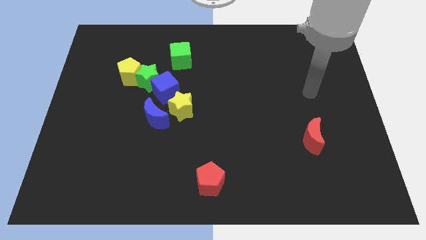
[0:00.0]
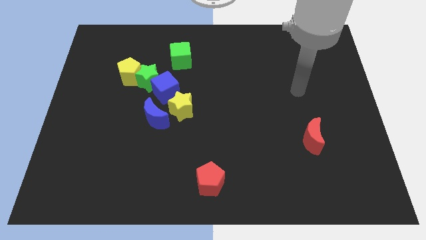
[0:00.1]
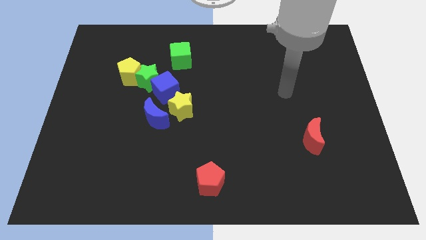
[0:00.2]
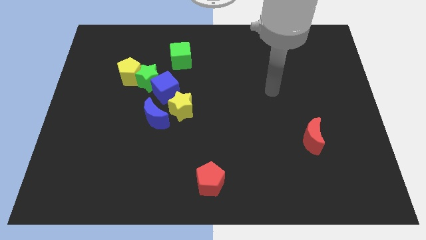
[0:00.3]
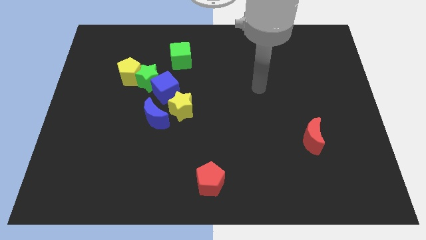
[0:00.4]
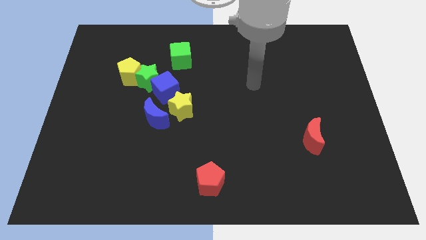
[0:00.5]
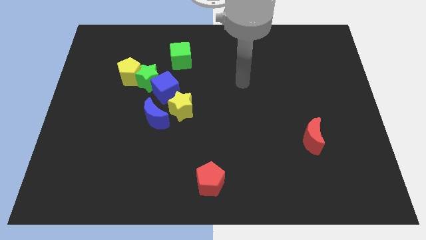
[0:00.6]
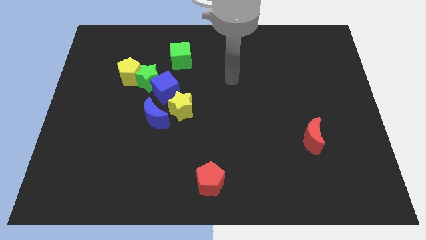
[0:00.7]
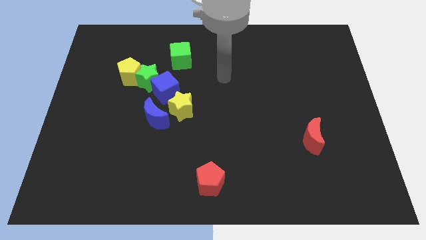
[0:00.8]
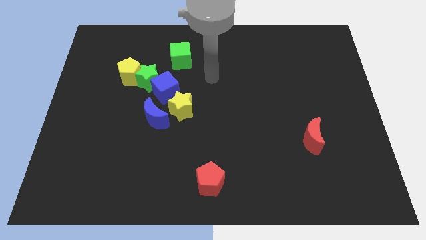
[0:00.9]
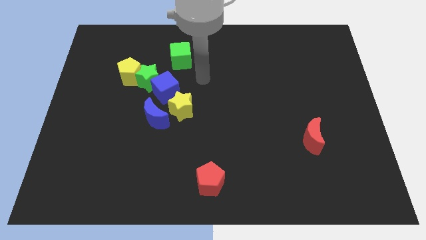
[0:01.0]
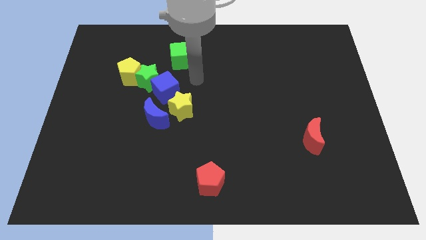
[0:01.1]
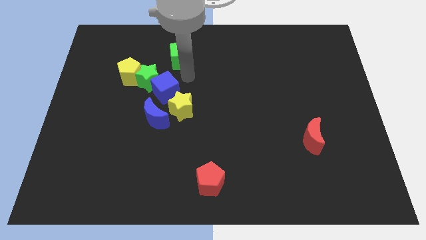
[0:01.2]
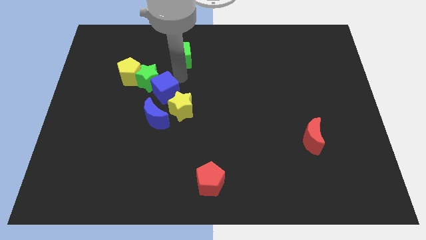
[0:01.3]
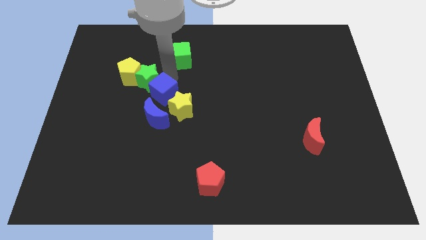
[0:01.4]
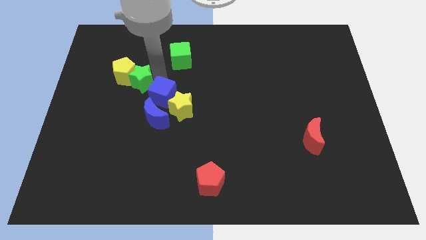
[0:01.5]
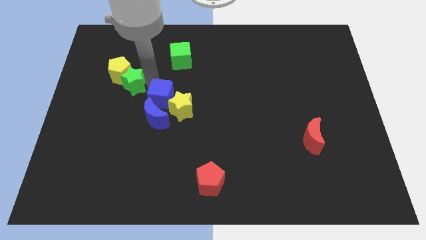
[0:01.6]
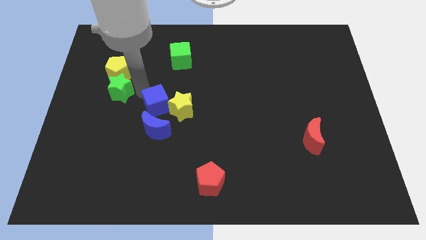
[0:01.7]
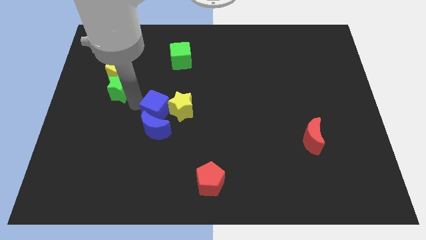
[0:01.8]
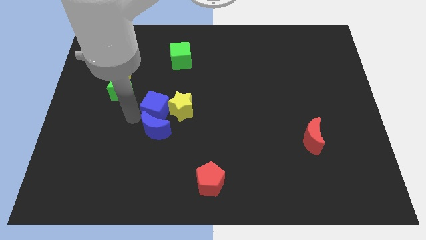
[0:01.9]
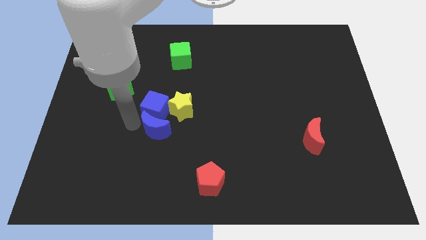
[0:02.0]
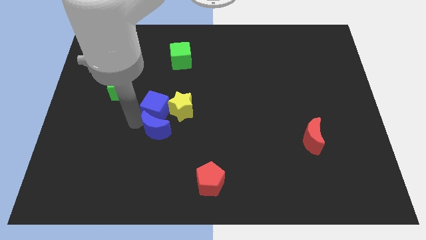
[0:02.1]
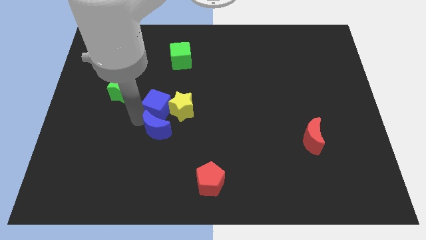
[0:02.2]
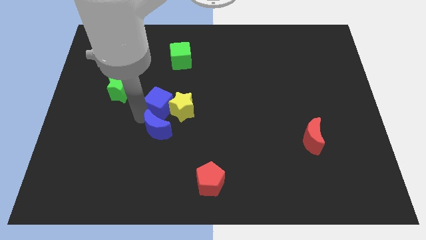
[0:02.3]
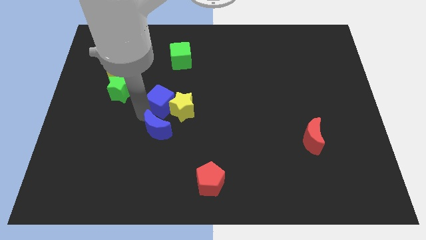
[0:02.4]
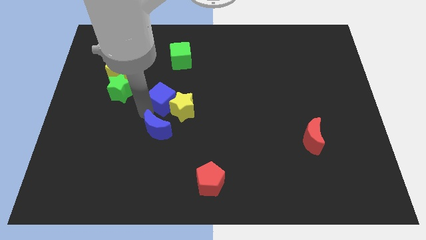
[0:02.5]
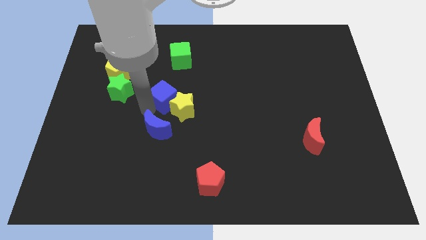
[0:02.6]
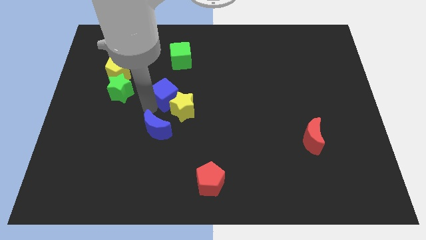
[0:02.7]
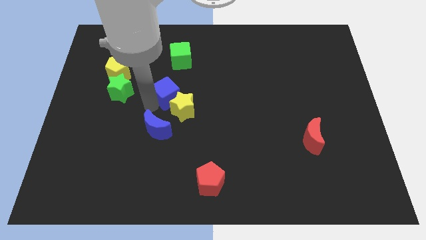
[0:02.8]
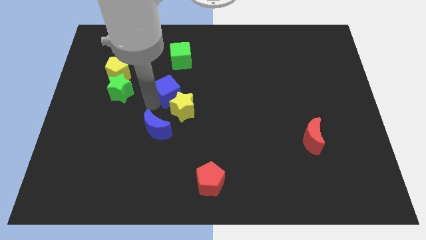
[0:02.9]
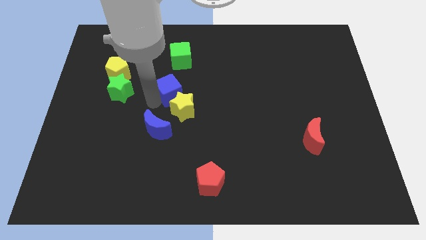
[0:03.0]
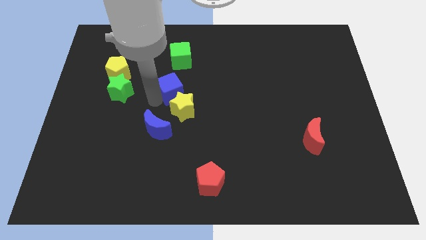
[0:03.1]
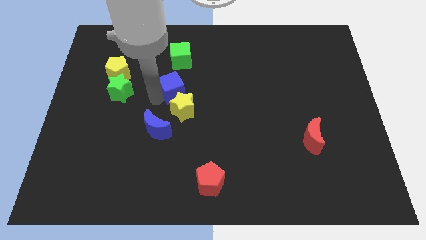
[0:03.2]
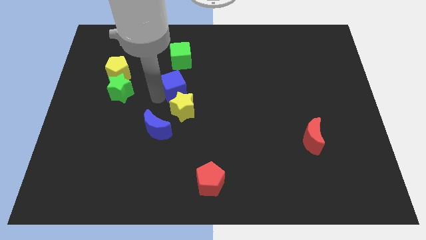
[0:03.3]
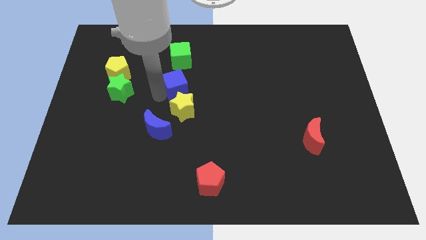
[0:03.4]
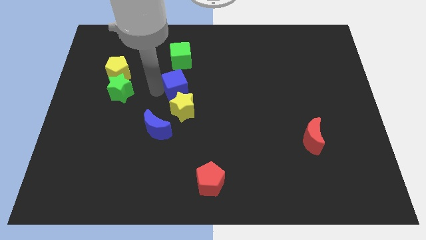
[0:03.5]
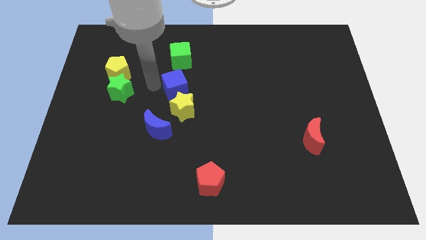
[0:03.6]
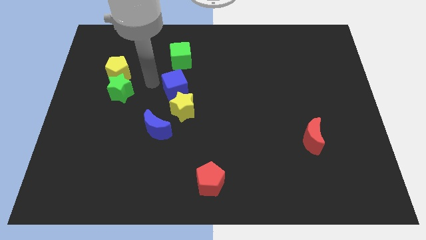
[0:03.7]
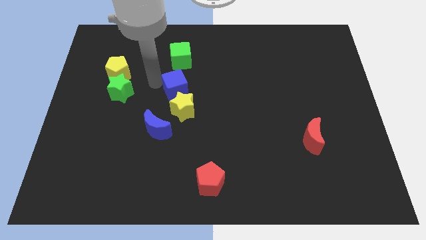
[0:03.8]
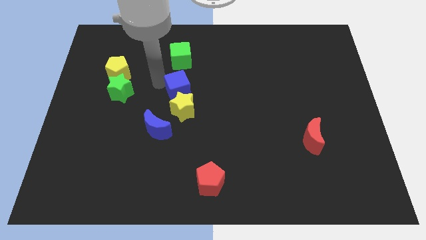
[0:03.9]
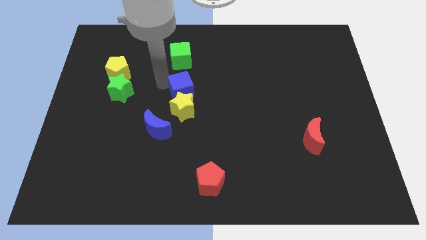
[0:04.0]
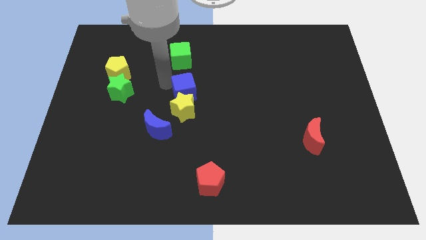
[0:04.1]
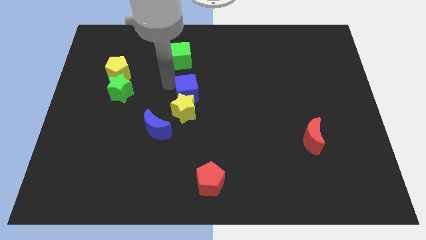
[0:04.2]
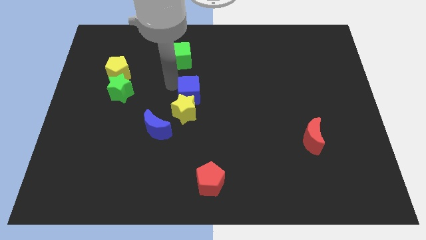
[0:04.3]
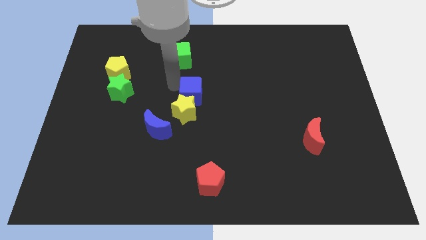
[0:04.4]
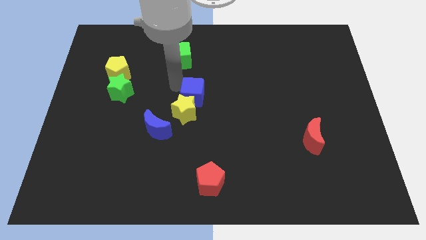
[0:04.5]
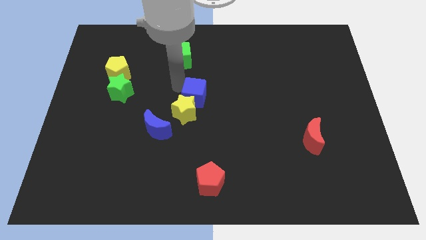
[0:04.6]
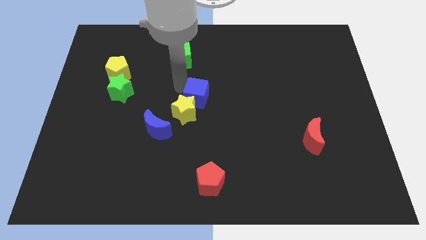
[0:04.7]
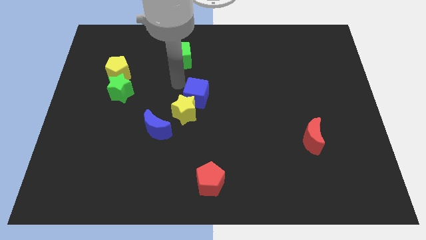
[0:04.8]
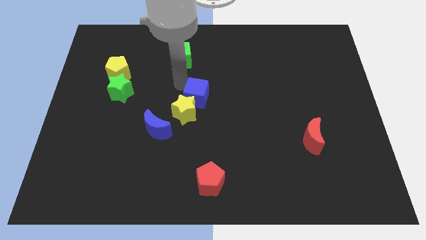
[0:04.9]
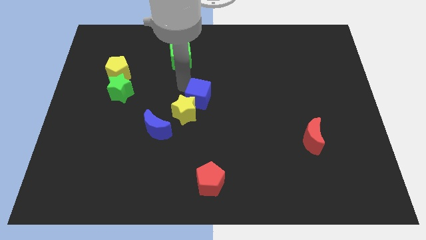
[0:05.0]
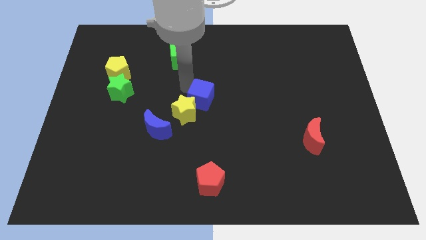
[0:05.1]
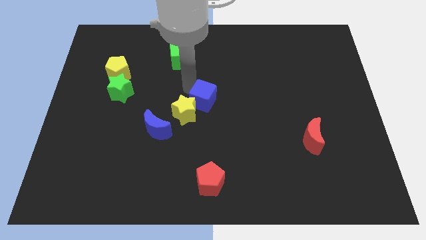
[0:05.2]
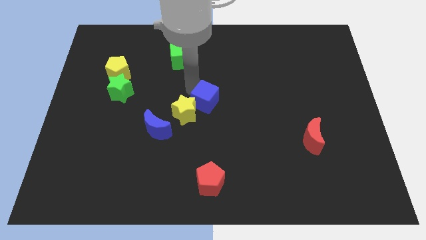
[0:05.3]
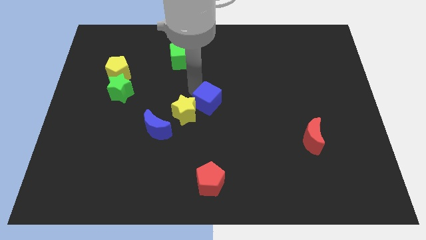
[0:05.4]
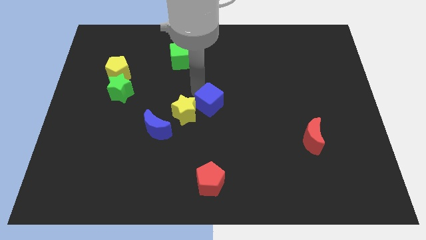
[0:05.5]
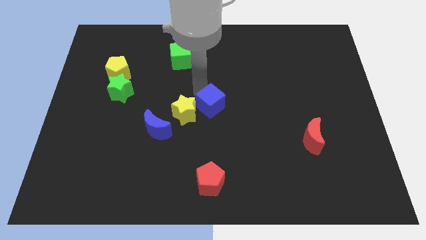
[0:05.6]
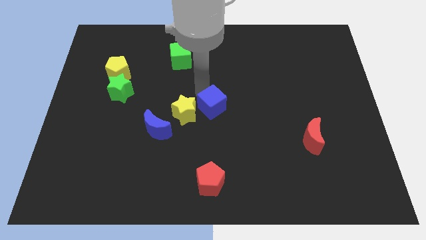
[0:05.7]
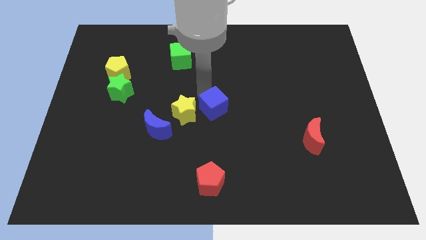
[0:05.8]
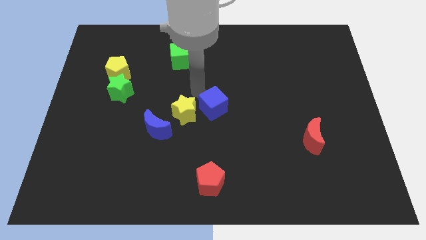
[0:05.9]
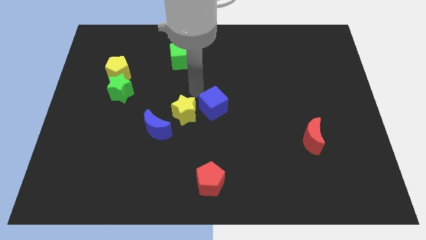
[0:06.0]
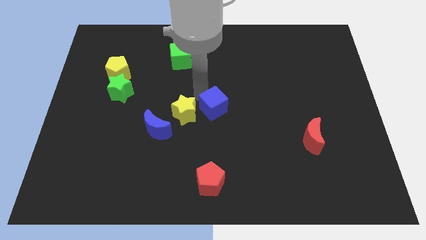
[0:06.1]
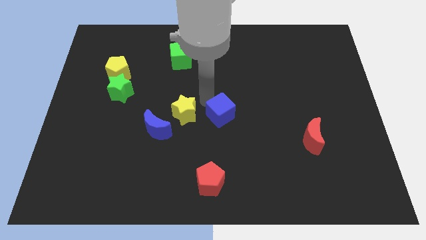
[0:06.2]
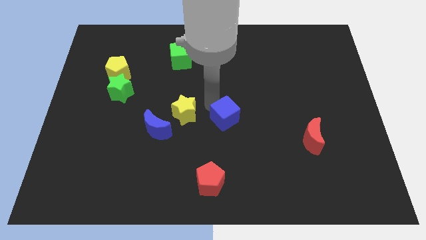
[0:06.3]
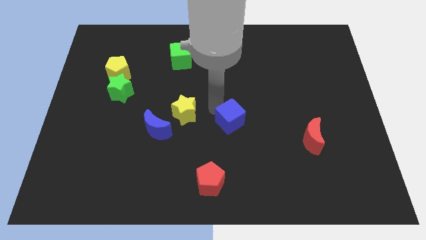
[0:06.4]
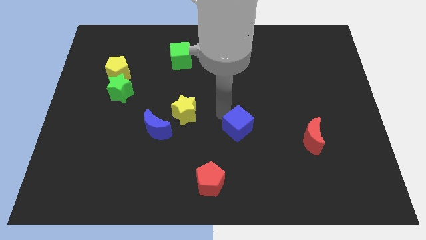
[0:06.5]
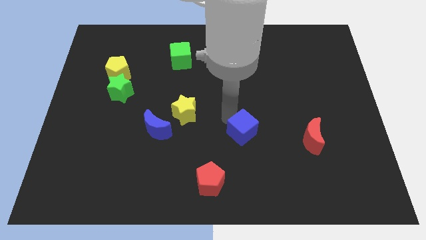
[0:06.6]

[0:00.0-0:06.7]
push the blue cube downwards and then right

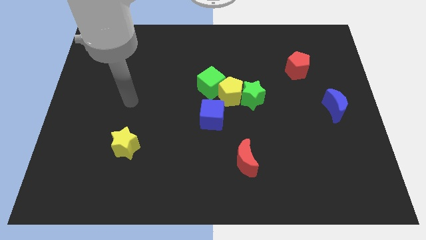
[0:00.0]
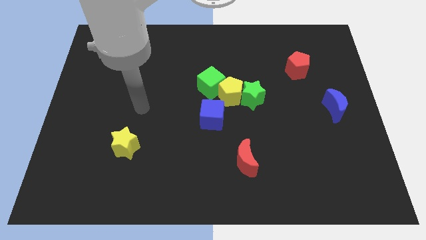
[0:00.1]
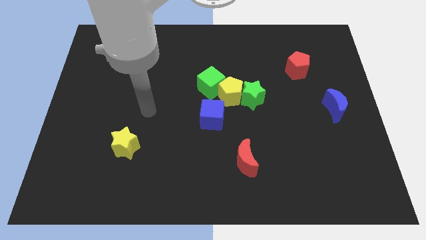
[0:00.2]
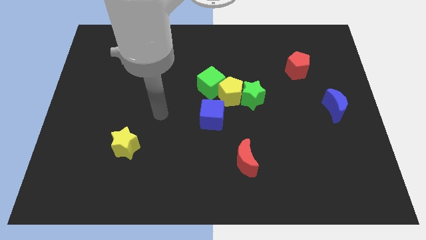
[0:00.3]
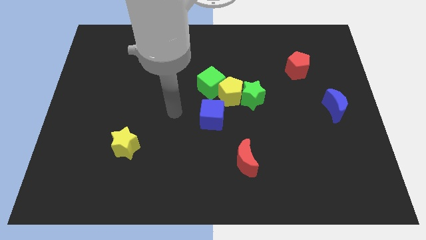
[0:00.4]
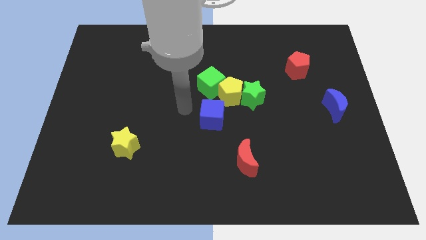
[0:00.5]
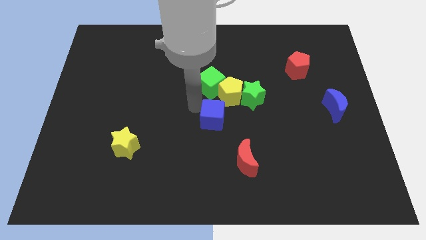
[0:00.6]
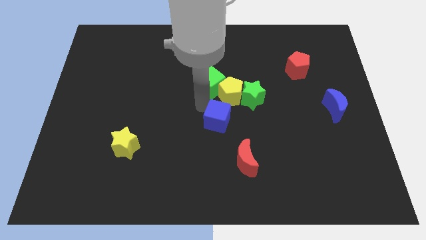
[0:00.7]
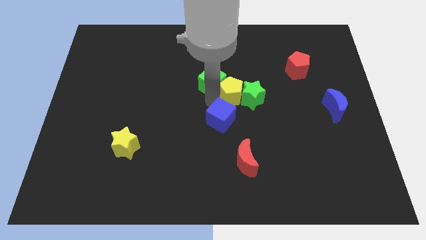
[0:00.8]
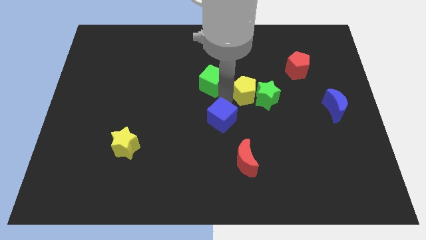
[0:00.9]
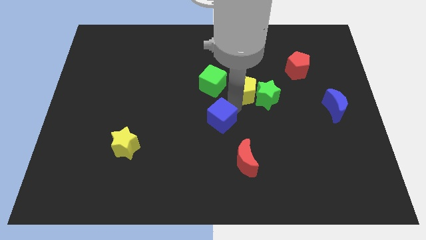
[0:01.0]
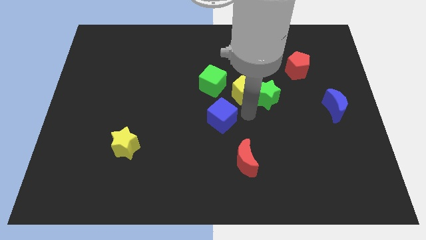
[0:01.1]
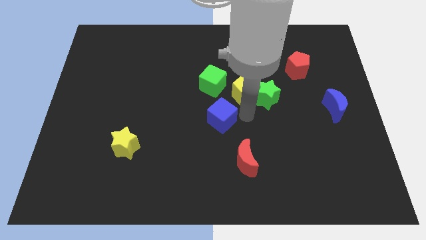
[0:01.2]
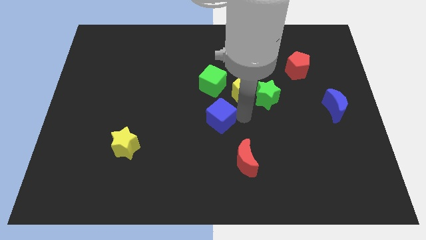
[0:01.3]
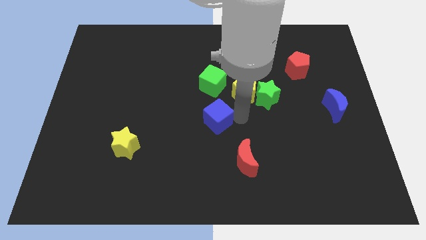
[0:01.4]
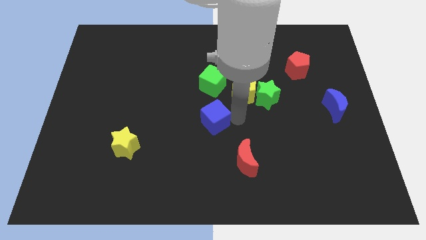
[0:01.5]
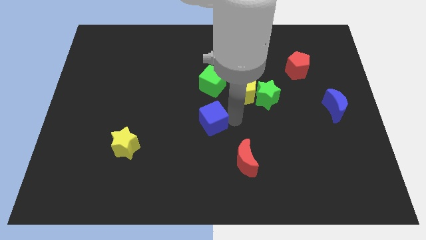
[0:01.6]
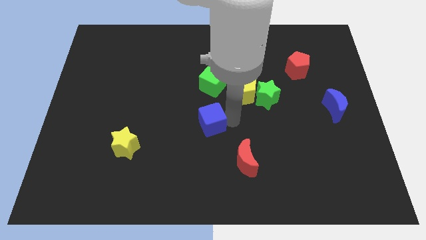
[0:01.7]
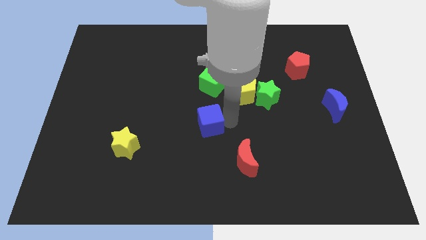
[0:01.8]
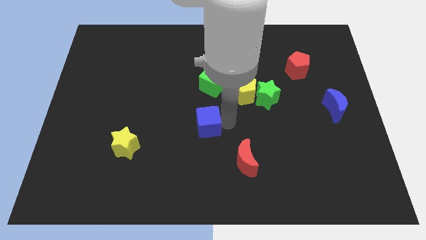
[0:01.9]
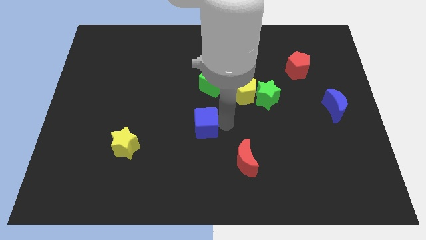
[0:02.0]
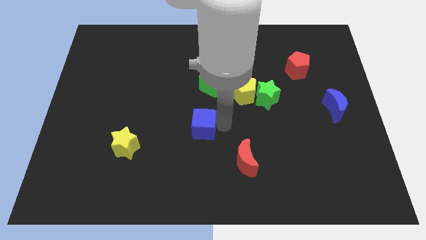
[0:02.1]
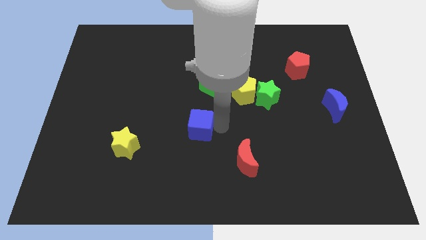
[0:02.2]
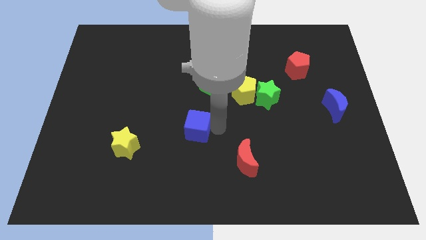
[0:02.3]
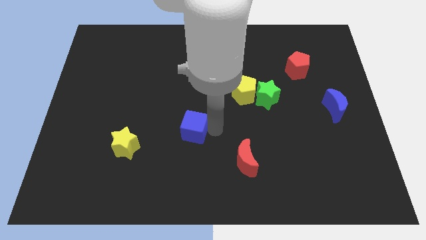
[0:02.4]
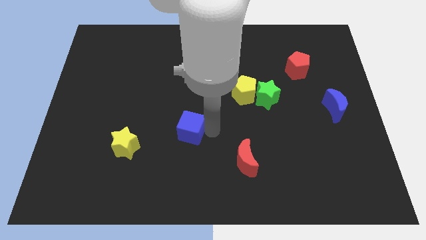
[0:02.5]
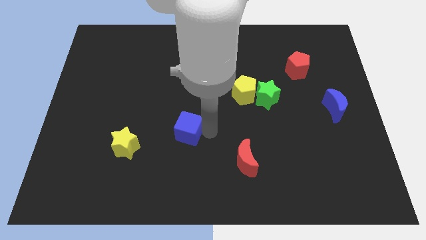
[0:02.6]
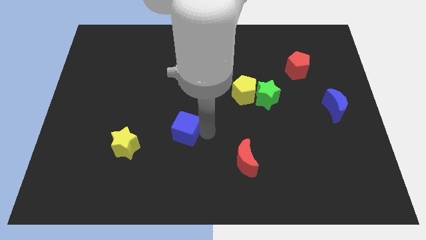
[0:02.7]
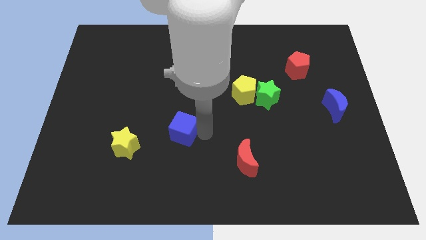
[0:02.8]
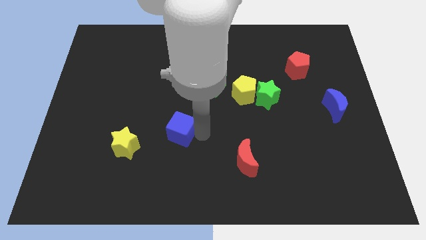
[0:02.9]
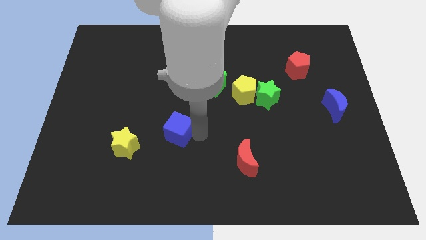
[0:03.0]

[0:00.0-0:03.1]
slightly slide the blue cube left
